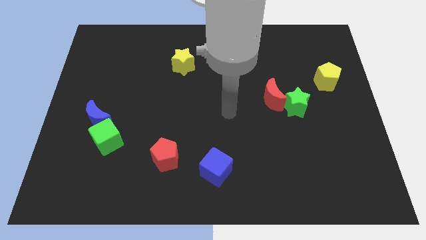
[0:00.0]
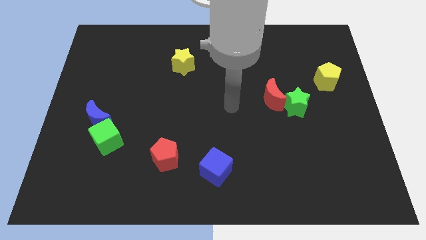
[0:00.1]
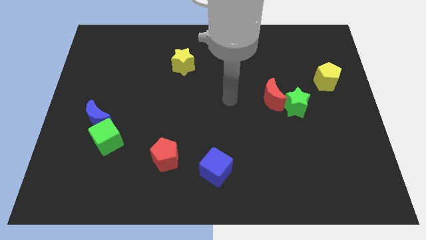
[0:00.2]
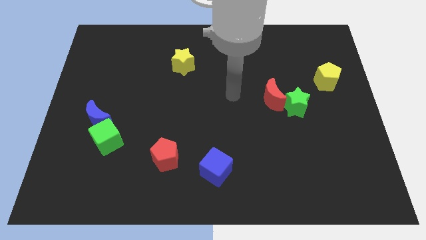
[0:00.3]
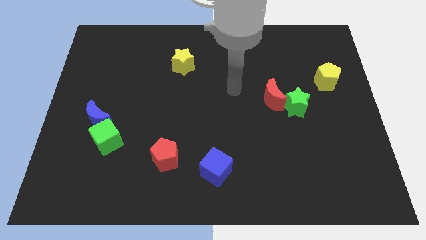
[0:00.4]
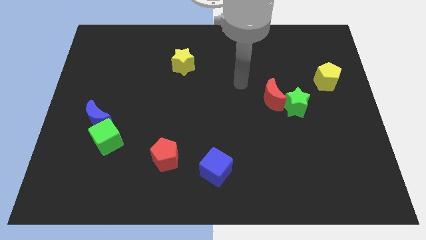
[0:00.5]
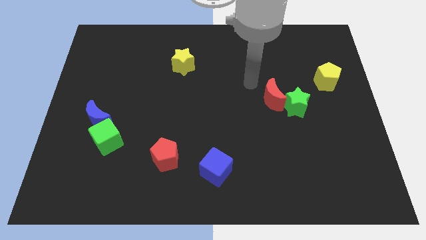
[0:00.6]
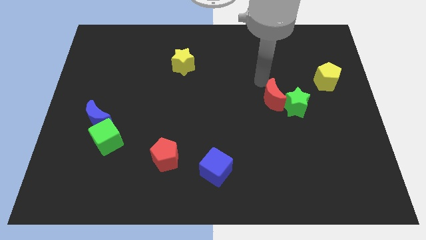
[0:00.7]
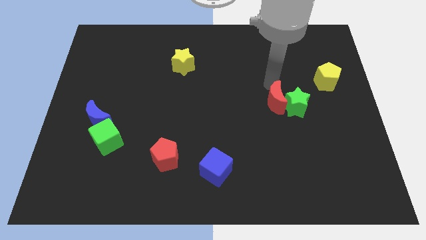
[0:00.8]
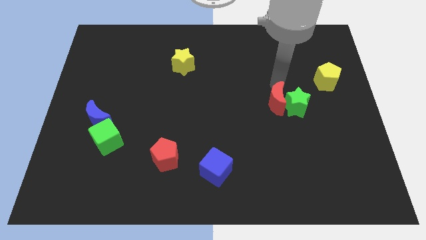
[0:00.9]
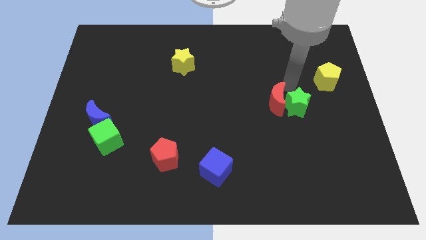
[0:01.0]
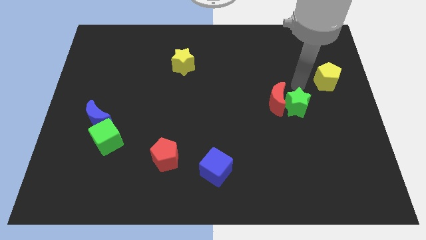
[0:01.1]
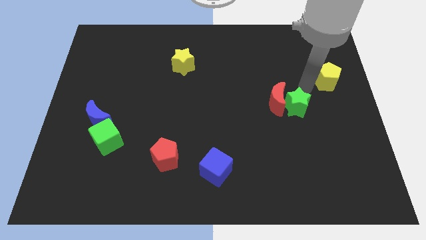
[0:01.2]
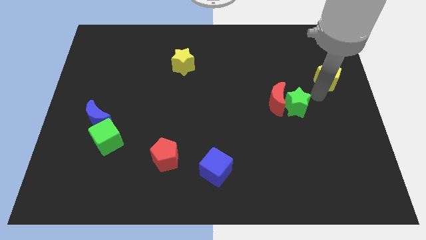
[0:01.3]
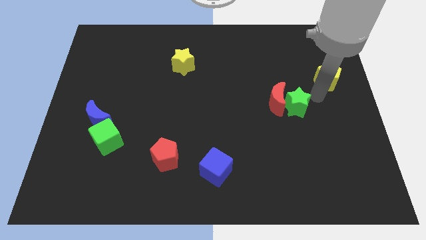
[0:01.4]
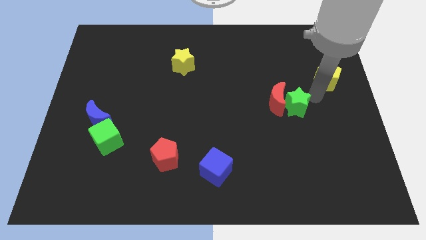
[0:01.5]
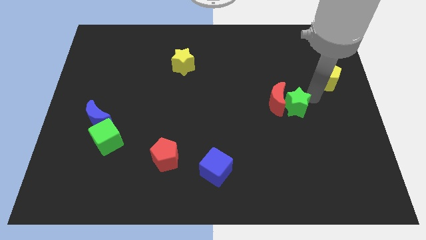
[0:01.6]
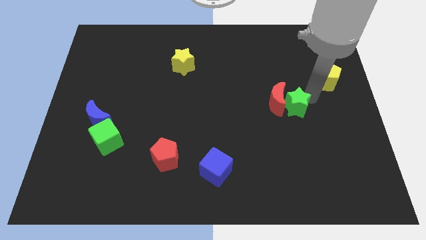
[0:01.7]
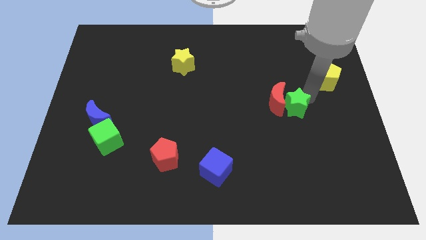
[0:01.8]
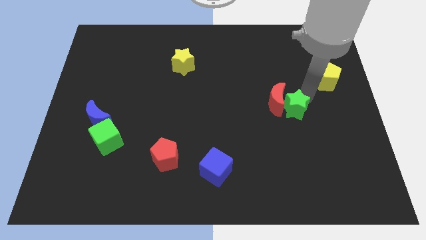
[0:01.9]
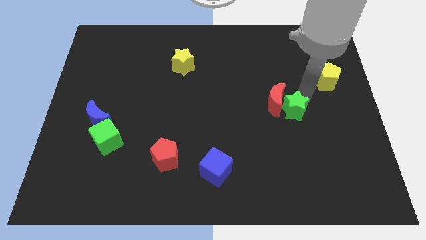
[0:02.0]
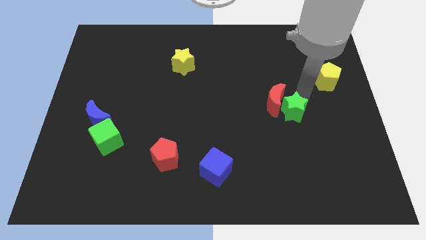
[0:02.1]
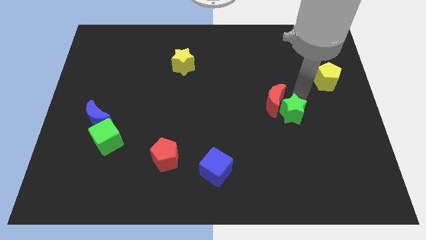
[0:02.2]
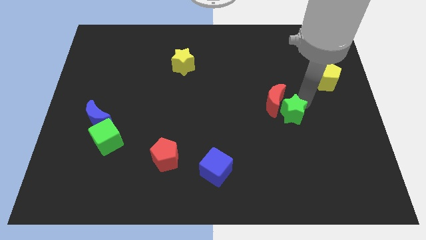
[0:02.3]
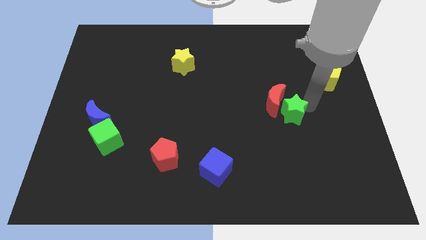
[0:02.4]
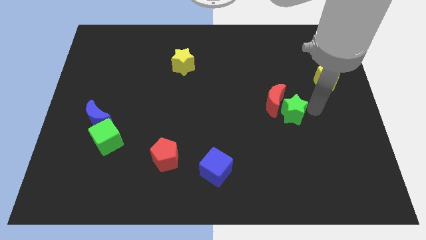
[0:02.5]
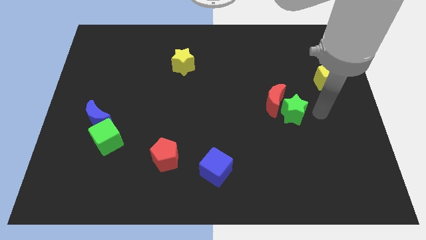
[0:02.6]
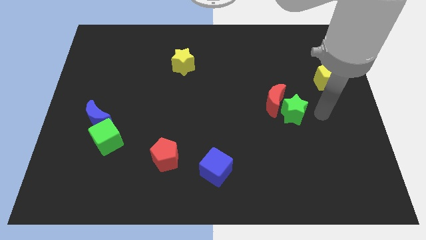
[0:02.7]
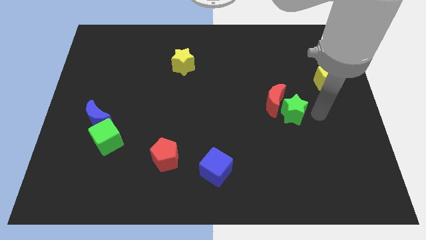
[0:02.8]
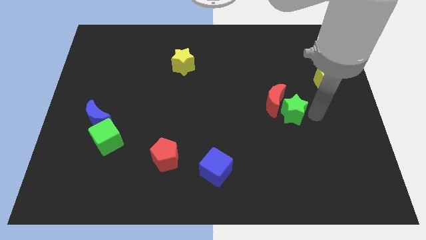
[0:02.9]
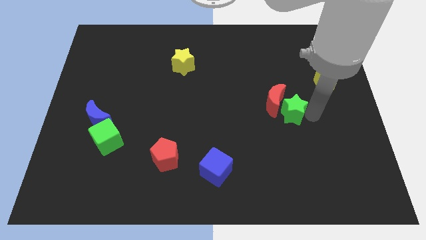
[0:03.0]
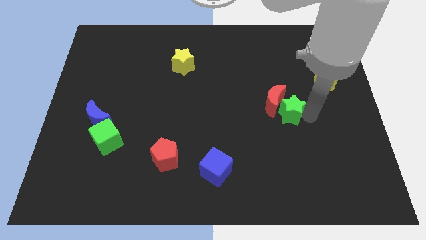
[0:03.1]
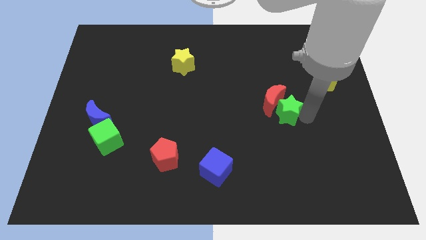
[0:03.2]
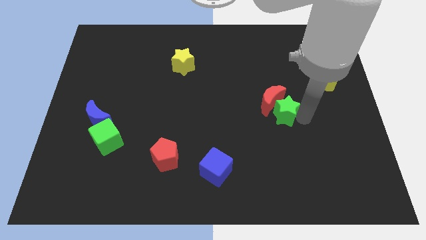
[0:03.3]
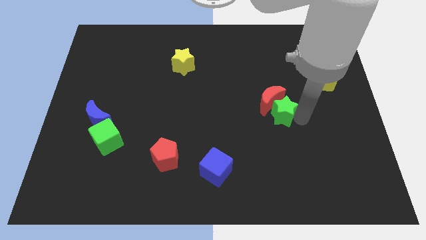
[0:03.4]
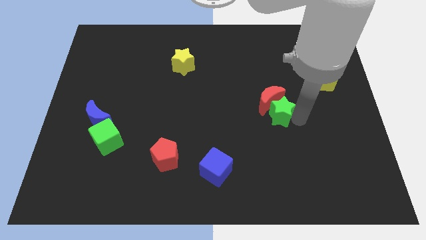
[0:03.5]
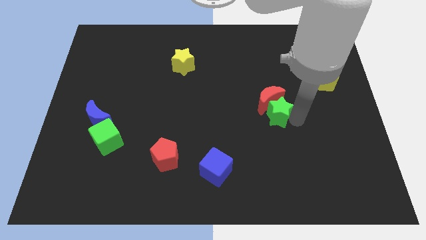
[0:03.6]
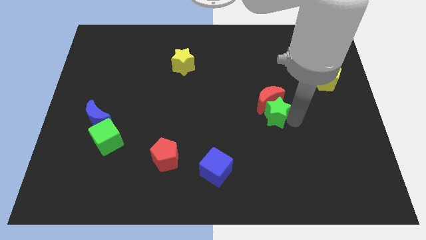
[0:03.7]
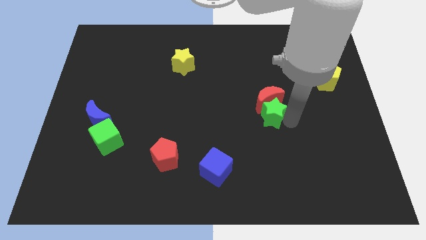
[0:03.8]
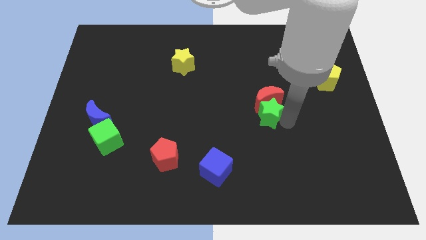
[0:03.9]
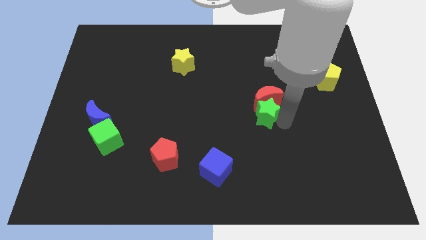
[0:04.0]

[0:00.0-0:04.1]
slide the green star to the left a bit

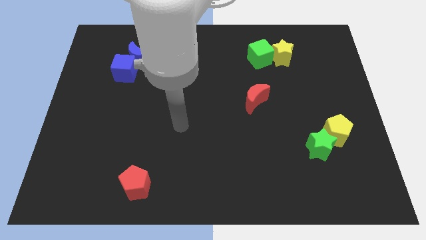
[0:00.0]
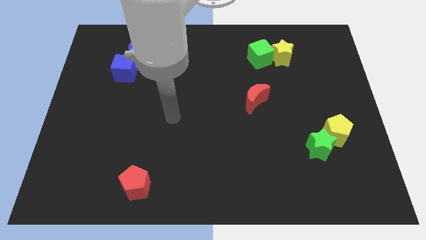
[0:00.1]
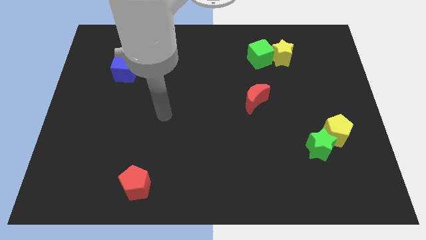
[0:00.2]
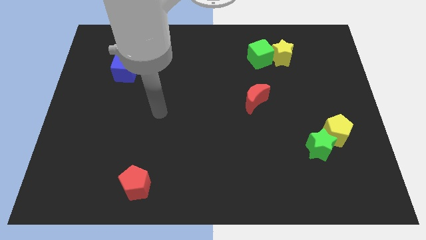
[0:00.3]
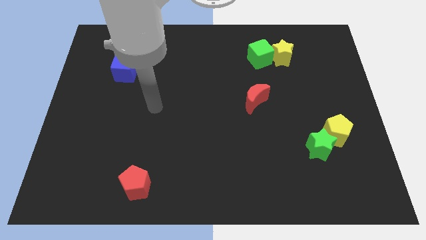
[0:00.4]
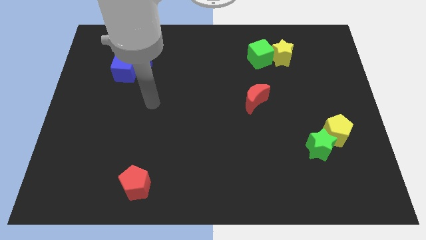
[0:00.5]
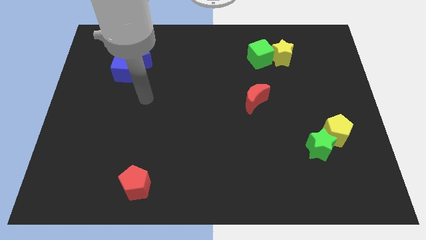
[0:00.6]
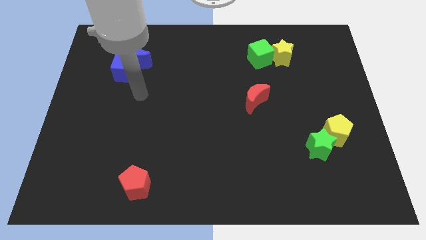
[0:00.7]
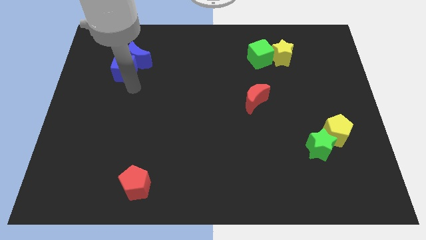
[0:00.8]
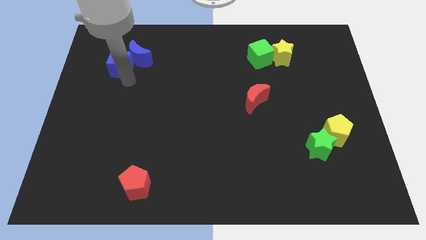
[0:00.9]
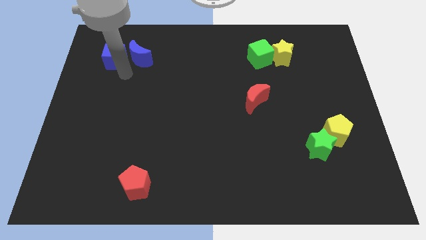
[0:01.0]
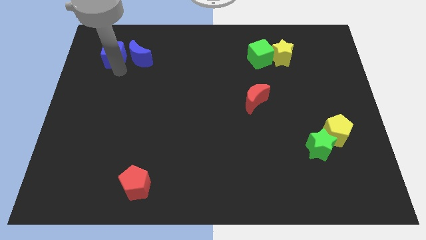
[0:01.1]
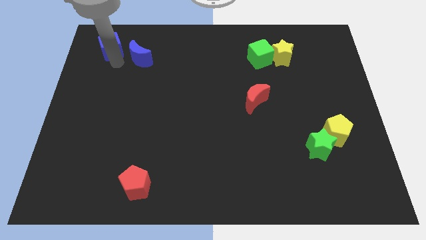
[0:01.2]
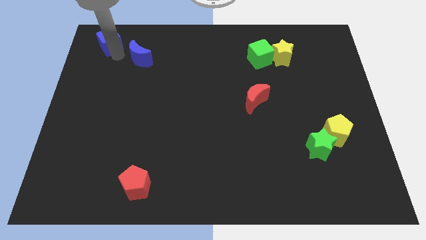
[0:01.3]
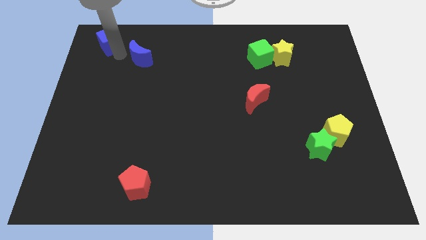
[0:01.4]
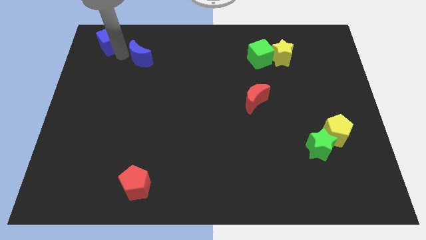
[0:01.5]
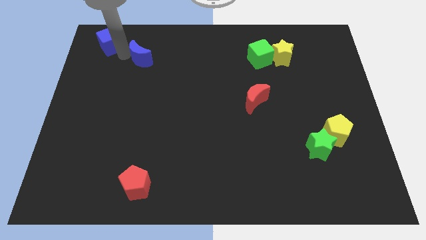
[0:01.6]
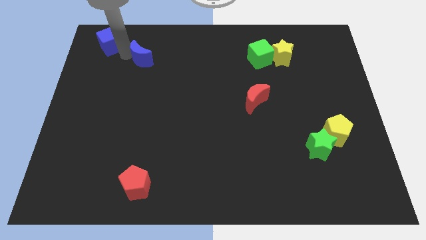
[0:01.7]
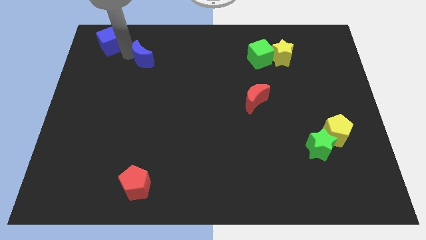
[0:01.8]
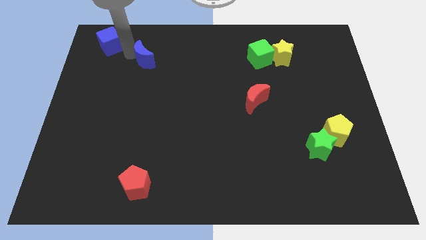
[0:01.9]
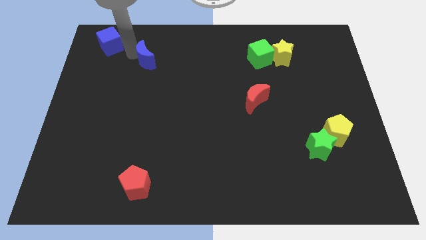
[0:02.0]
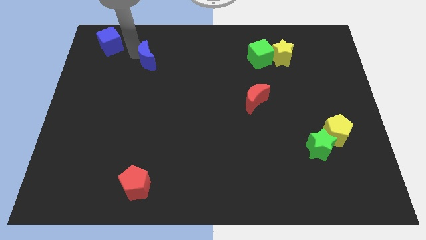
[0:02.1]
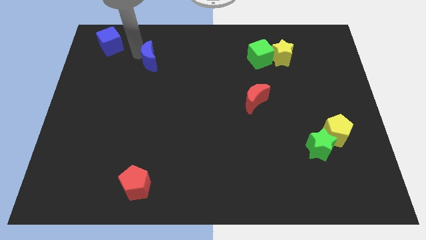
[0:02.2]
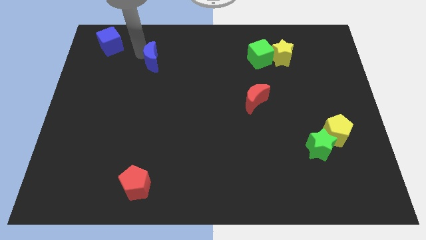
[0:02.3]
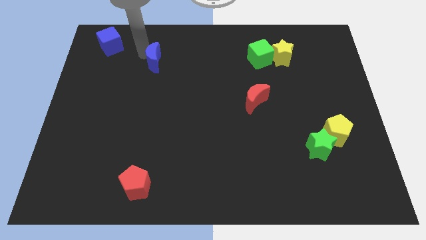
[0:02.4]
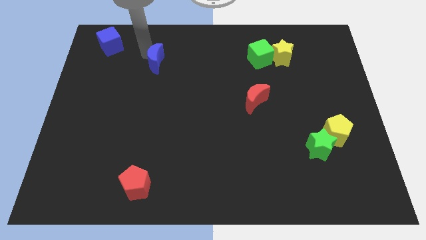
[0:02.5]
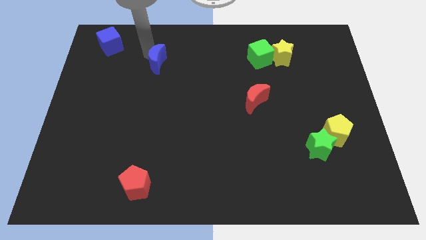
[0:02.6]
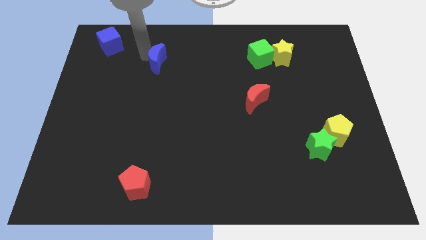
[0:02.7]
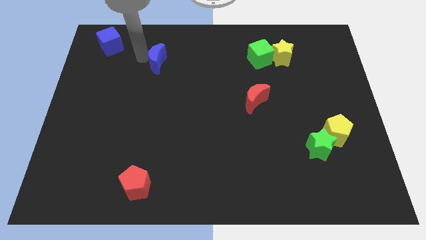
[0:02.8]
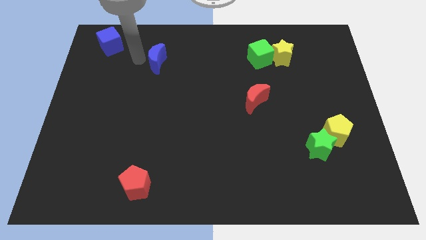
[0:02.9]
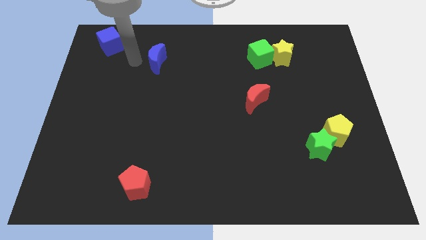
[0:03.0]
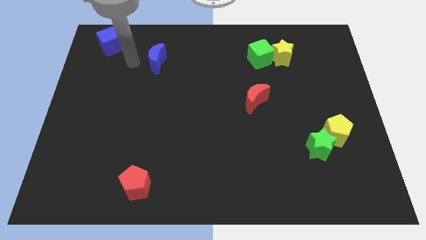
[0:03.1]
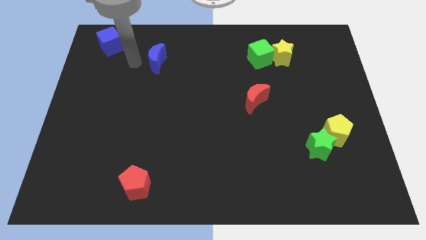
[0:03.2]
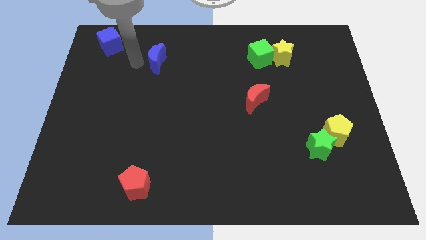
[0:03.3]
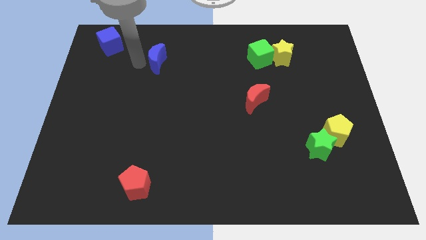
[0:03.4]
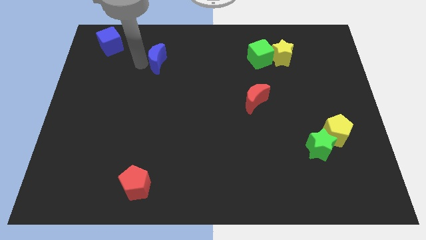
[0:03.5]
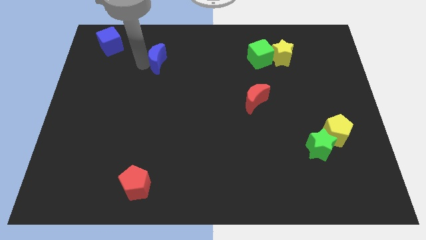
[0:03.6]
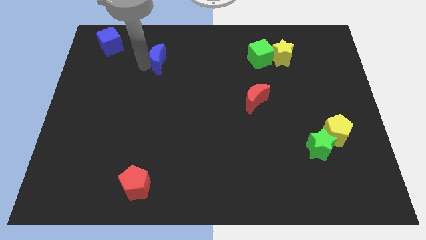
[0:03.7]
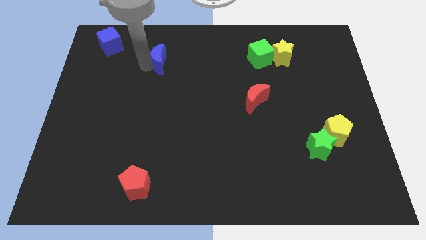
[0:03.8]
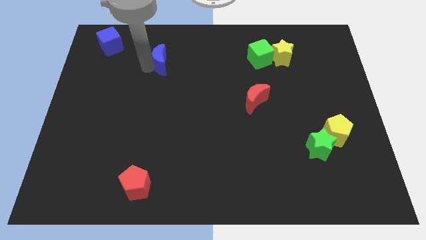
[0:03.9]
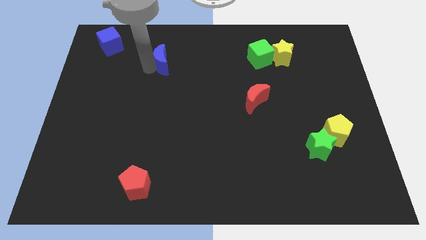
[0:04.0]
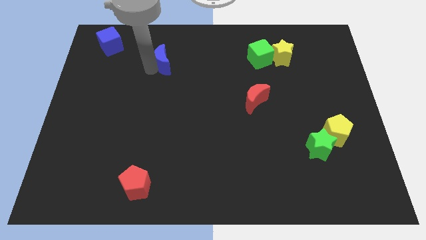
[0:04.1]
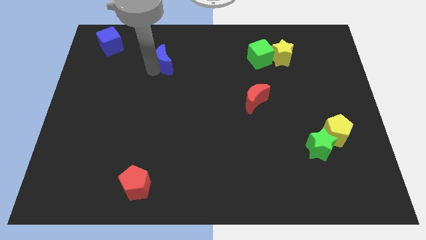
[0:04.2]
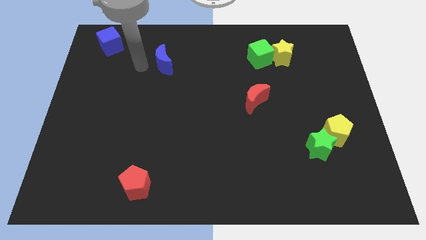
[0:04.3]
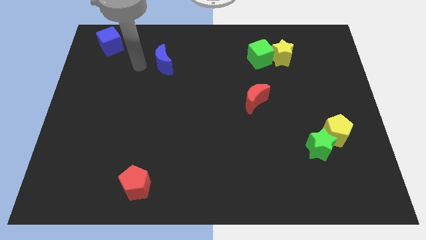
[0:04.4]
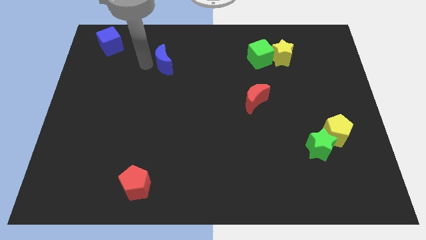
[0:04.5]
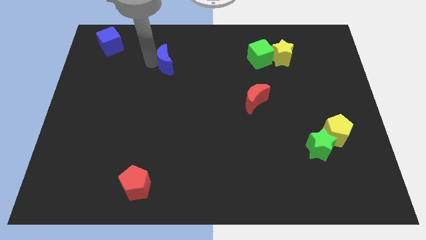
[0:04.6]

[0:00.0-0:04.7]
slide the blue moon right a bit
